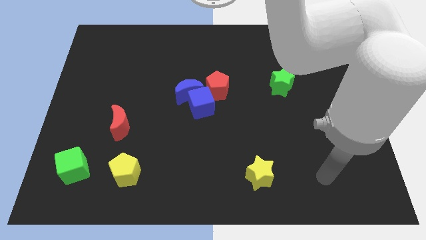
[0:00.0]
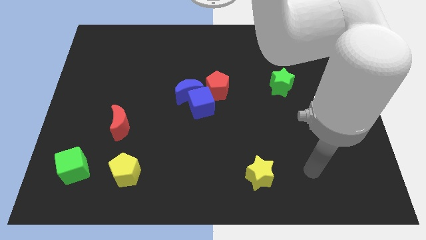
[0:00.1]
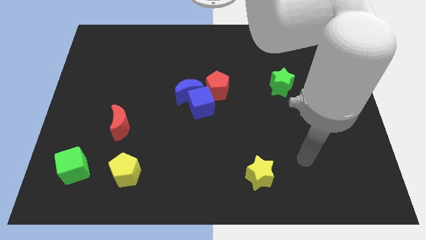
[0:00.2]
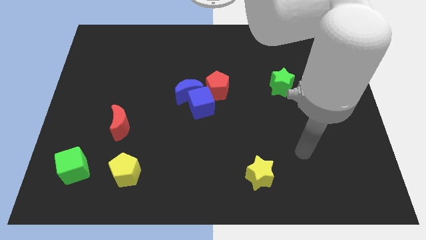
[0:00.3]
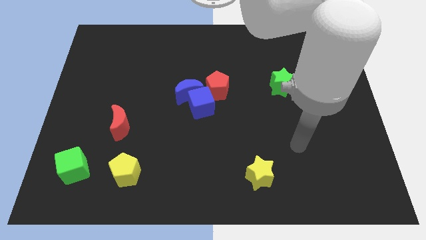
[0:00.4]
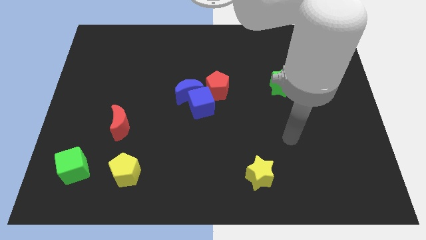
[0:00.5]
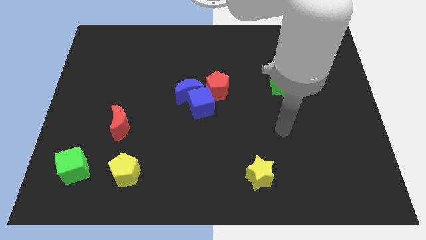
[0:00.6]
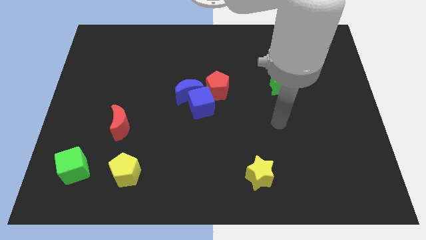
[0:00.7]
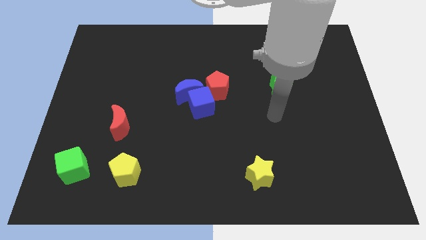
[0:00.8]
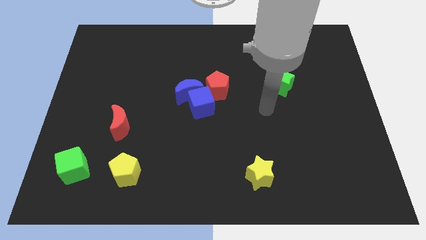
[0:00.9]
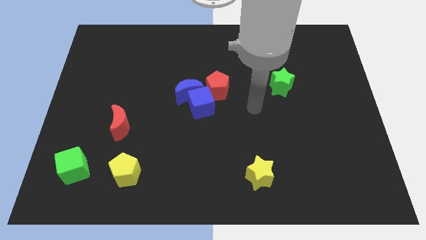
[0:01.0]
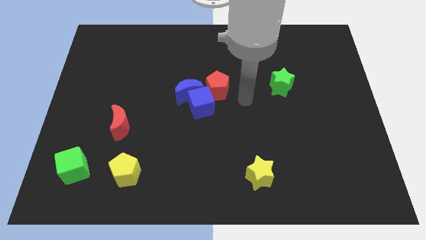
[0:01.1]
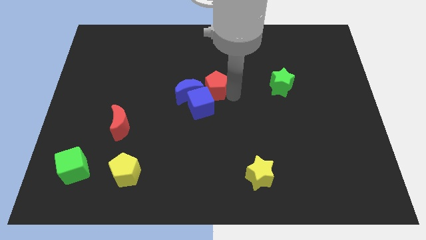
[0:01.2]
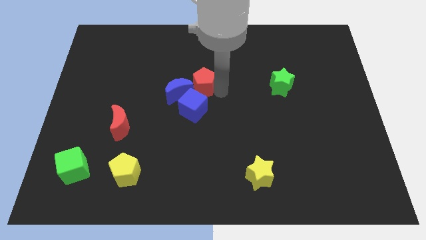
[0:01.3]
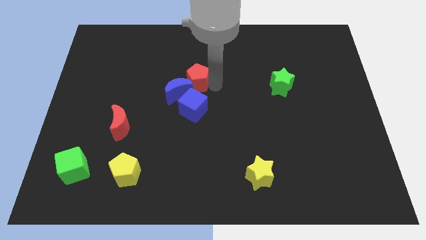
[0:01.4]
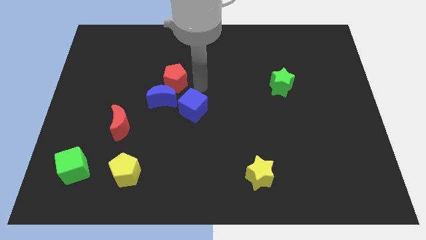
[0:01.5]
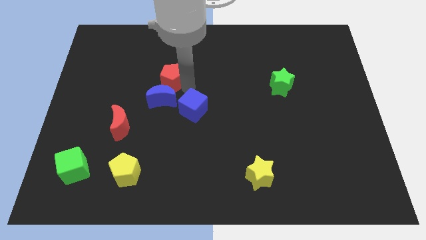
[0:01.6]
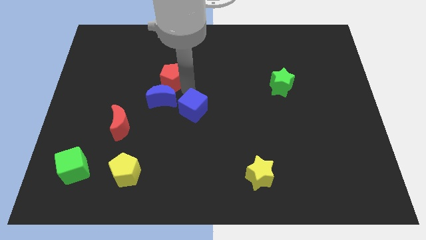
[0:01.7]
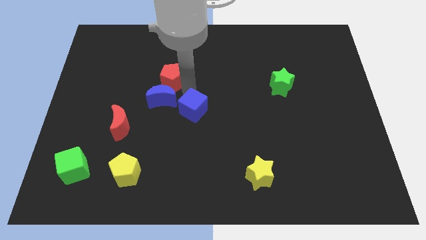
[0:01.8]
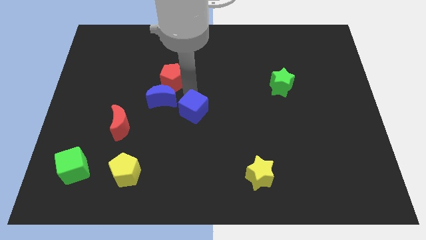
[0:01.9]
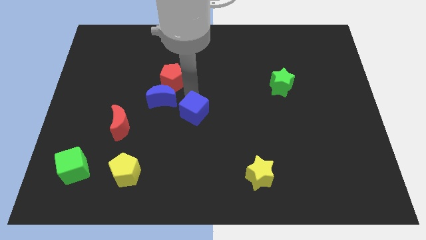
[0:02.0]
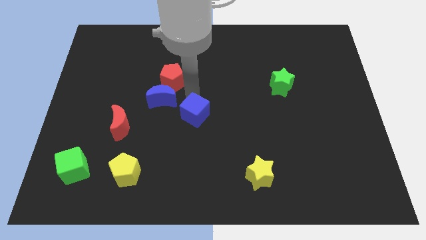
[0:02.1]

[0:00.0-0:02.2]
separate the blue cube from the blue moon and red pentagon

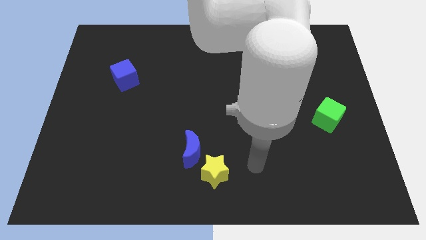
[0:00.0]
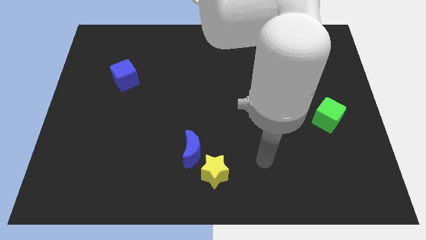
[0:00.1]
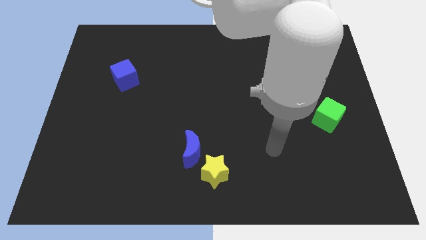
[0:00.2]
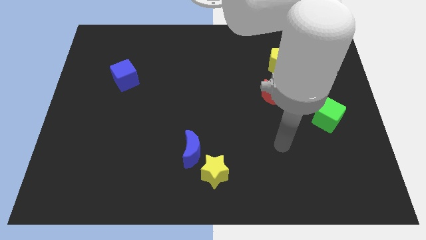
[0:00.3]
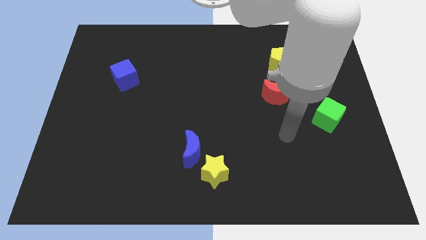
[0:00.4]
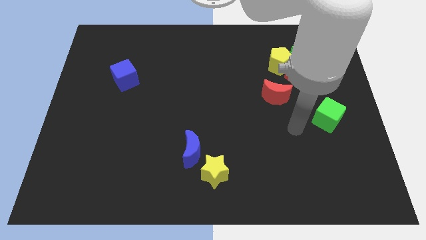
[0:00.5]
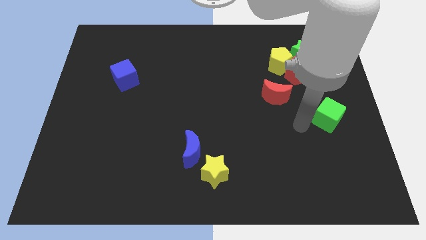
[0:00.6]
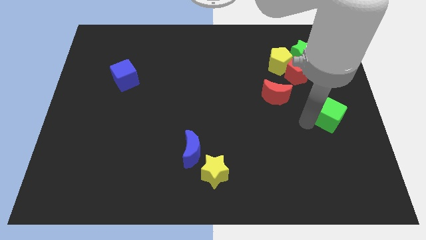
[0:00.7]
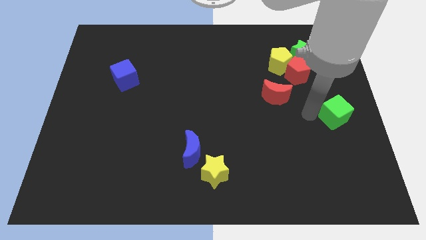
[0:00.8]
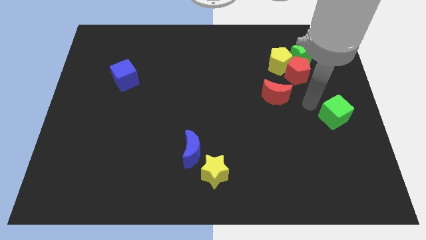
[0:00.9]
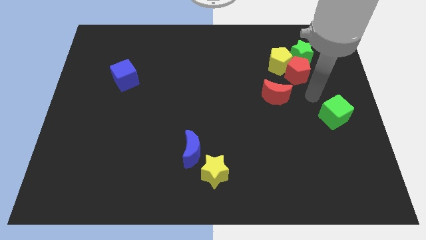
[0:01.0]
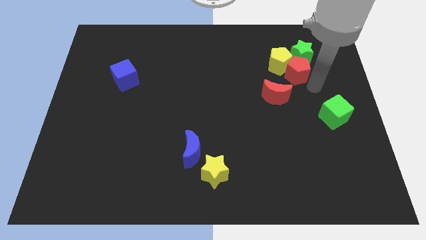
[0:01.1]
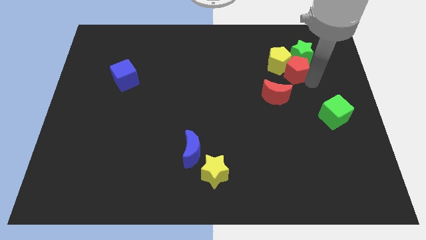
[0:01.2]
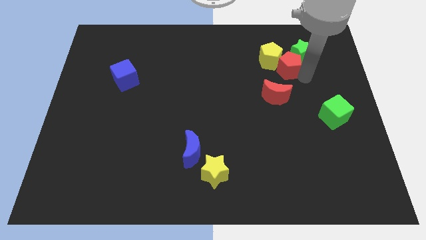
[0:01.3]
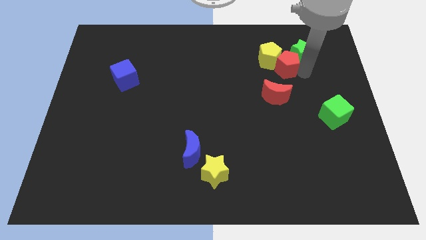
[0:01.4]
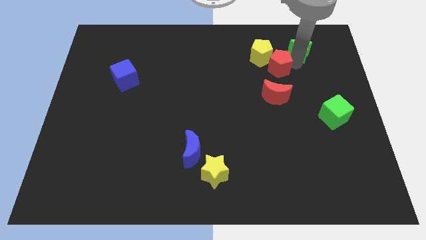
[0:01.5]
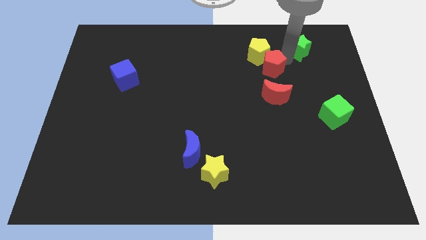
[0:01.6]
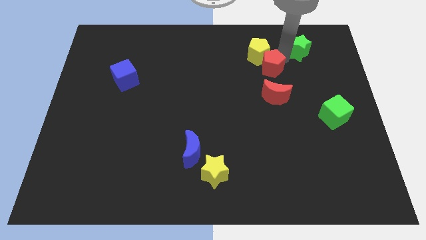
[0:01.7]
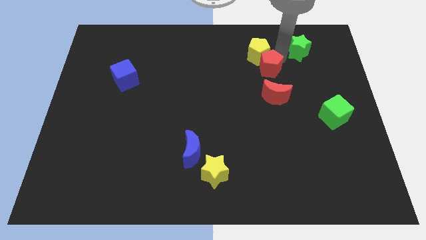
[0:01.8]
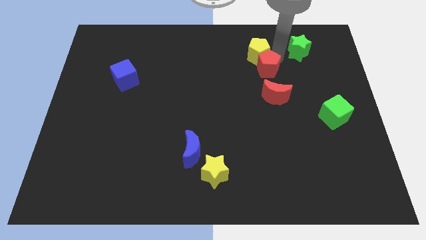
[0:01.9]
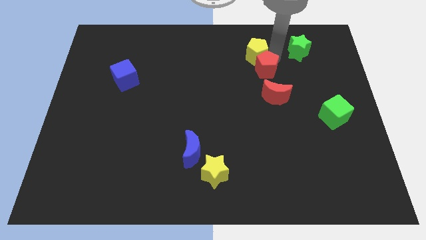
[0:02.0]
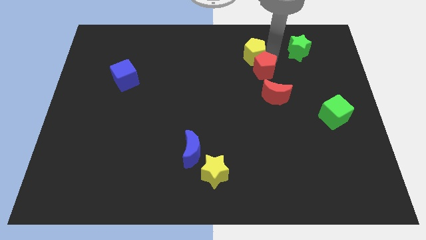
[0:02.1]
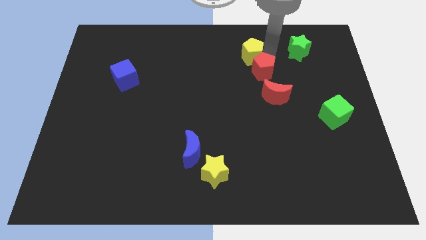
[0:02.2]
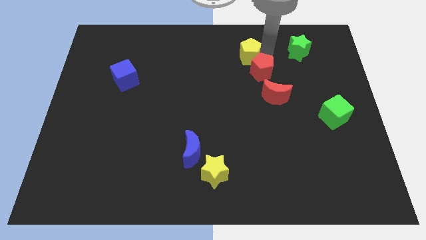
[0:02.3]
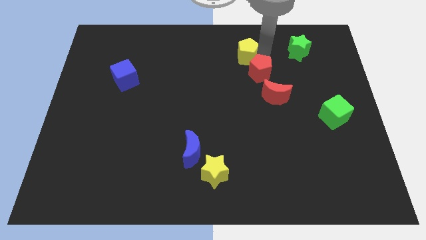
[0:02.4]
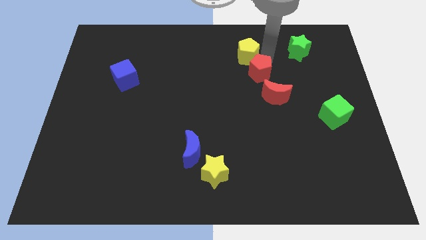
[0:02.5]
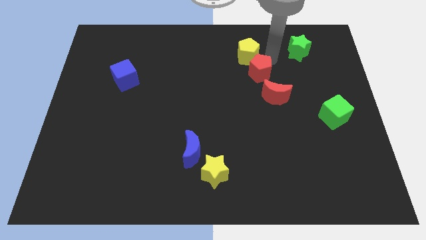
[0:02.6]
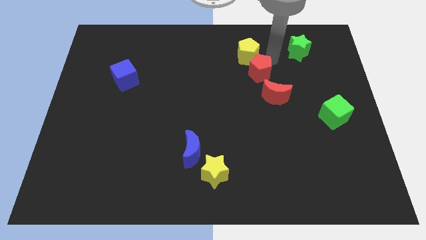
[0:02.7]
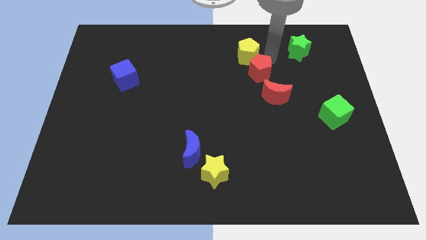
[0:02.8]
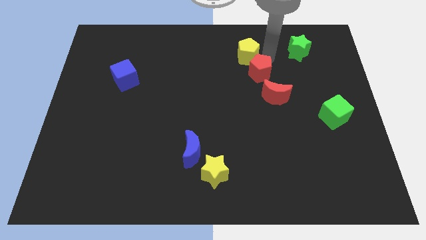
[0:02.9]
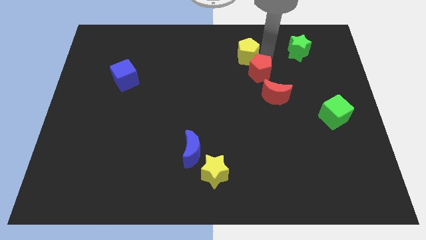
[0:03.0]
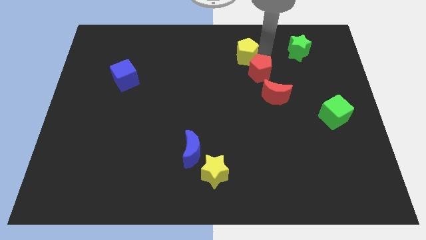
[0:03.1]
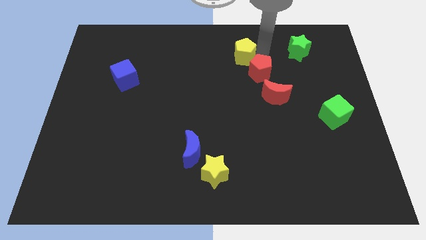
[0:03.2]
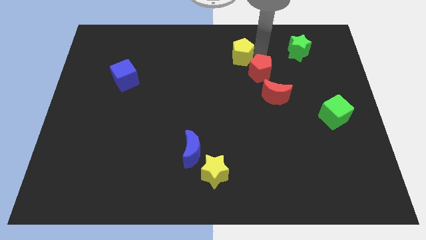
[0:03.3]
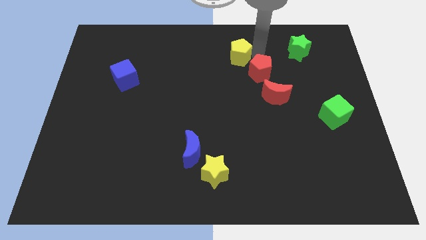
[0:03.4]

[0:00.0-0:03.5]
move the yellow pentagon away from the red pentagon and green star

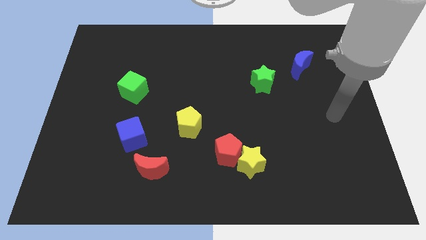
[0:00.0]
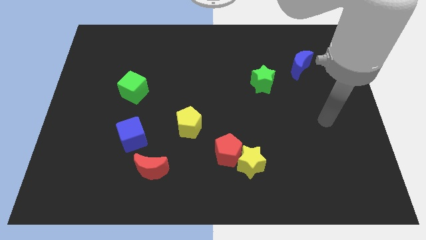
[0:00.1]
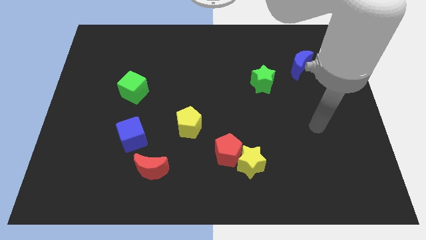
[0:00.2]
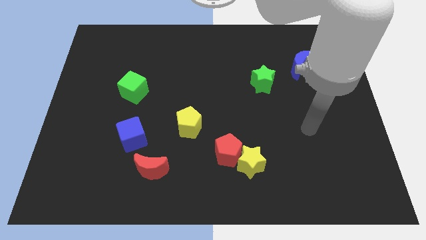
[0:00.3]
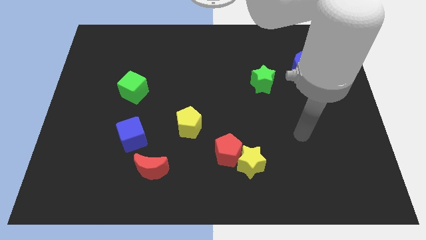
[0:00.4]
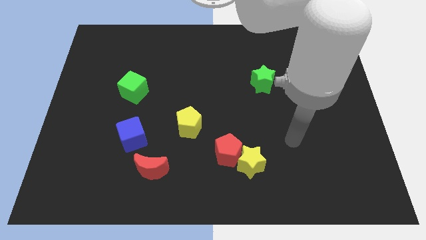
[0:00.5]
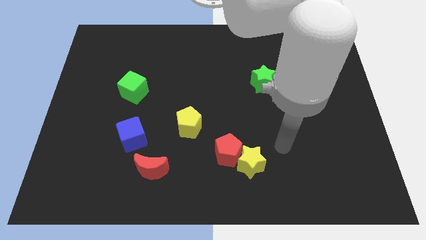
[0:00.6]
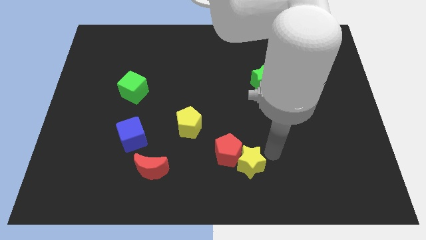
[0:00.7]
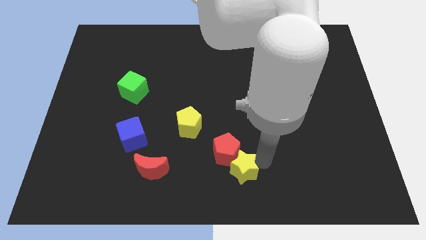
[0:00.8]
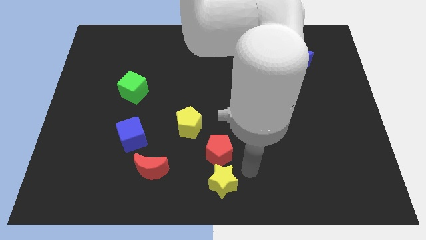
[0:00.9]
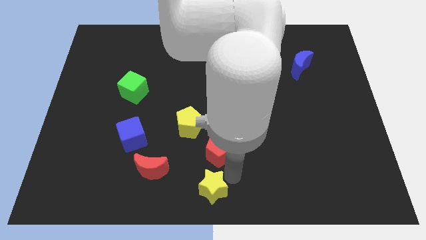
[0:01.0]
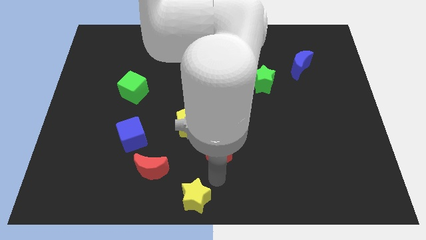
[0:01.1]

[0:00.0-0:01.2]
separate the red pentagon from the yellow star

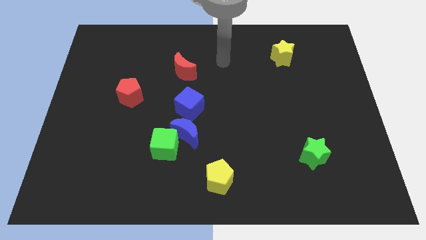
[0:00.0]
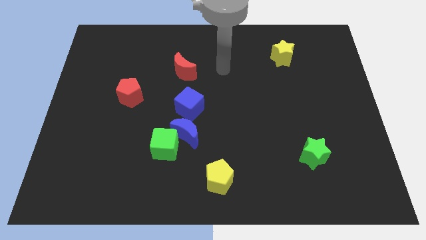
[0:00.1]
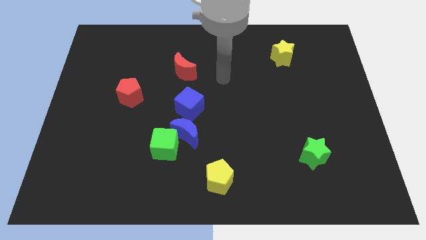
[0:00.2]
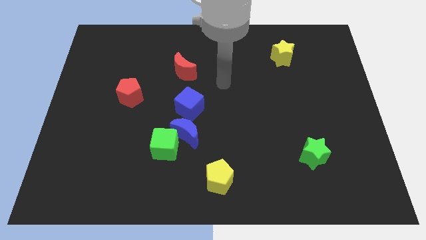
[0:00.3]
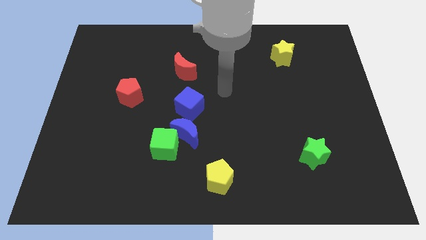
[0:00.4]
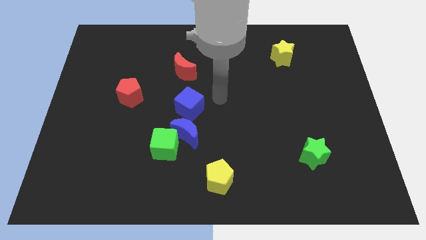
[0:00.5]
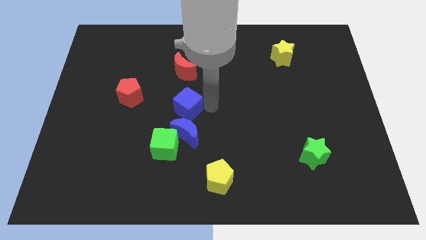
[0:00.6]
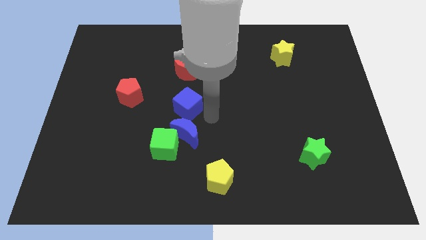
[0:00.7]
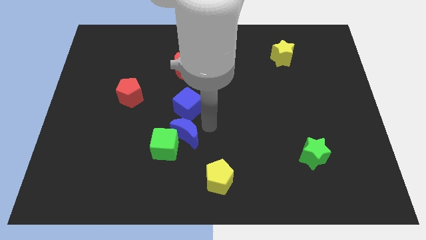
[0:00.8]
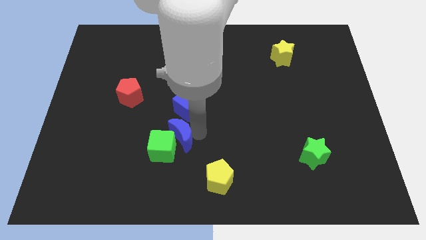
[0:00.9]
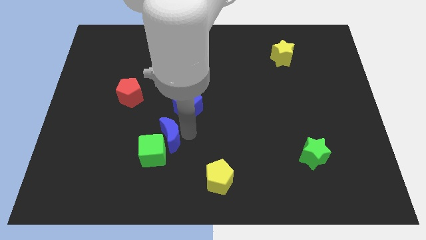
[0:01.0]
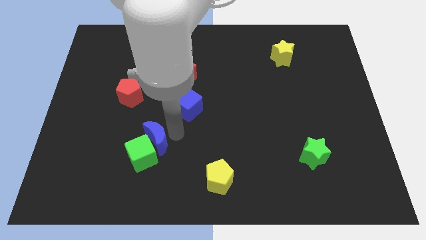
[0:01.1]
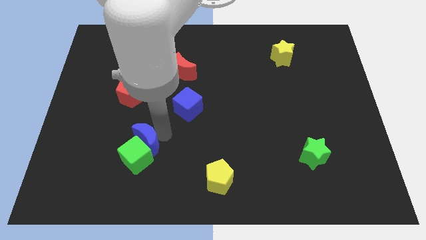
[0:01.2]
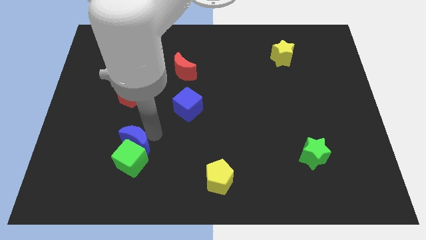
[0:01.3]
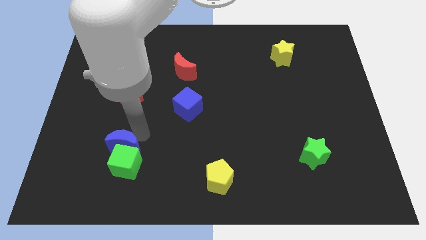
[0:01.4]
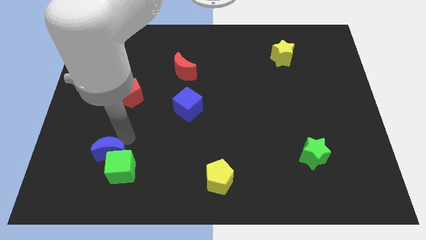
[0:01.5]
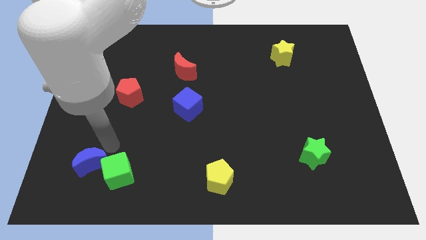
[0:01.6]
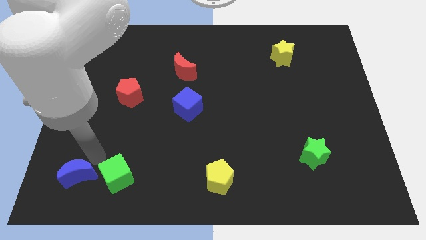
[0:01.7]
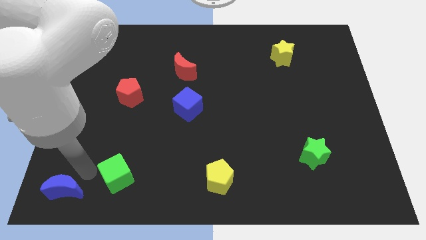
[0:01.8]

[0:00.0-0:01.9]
pull the green cube apart from the blue moon

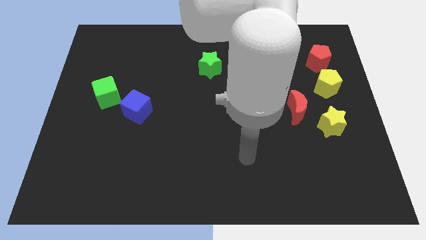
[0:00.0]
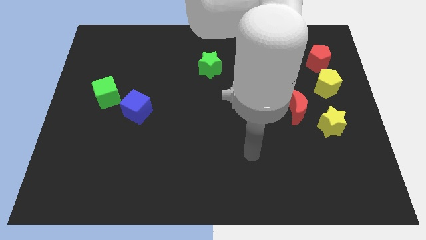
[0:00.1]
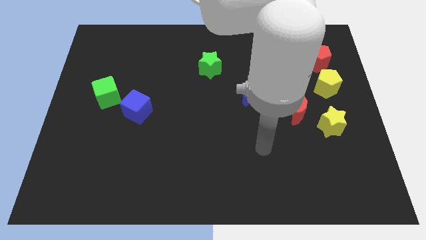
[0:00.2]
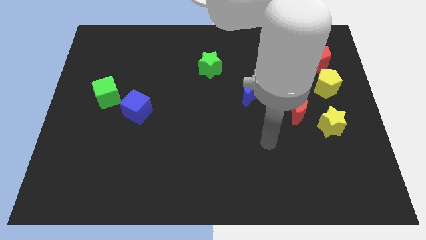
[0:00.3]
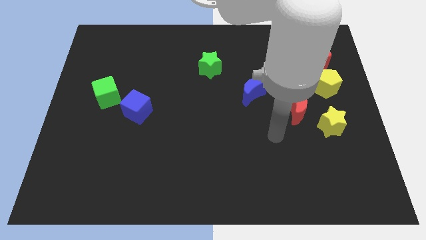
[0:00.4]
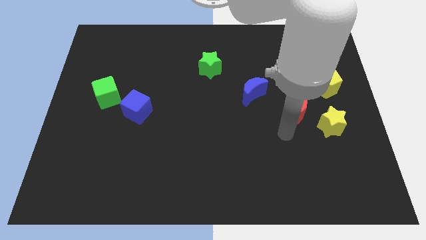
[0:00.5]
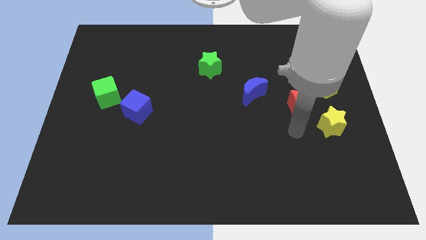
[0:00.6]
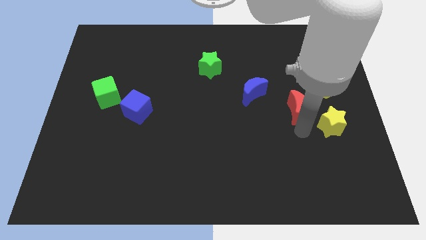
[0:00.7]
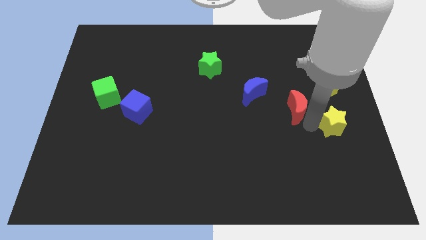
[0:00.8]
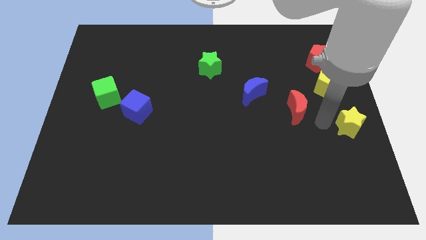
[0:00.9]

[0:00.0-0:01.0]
separate the red moon from the yellow star
